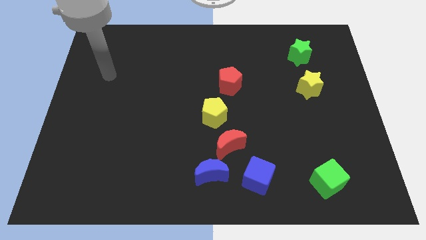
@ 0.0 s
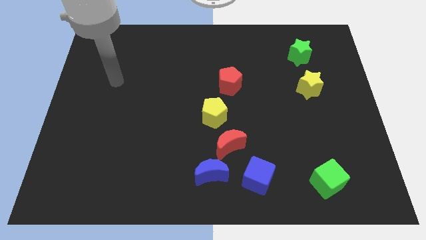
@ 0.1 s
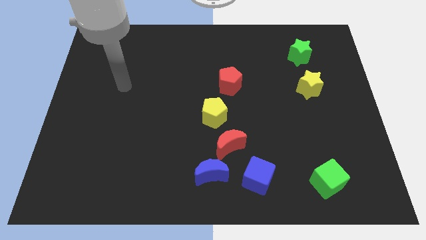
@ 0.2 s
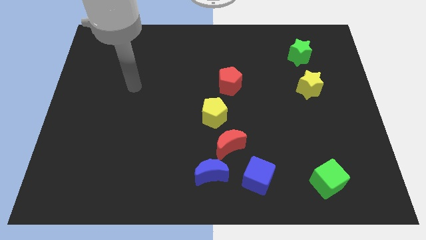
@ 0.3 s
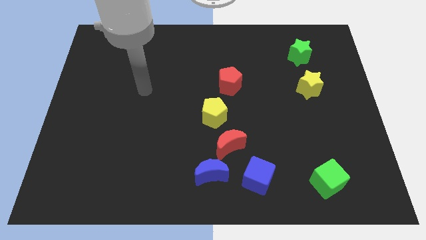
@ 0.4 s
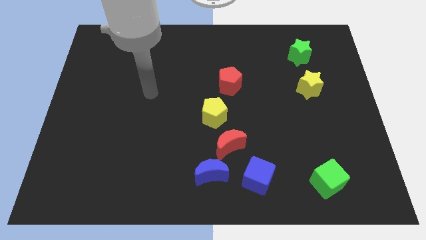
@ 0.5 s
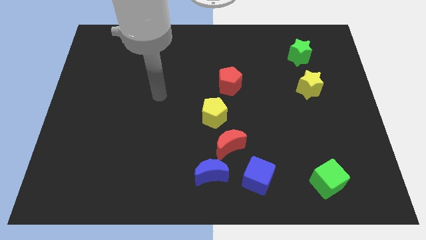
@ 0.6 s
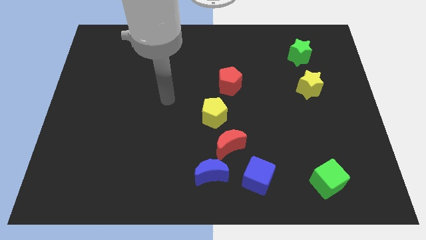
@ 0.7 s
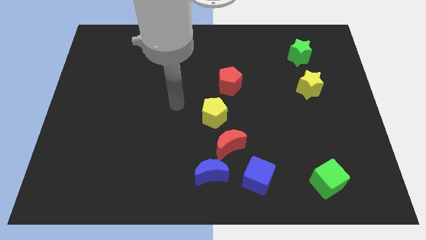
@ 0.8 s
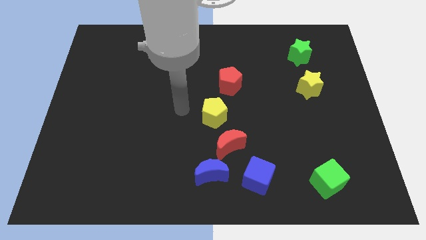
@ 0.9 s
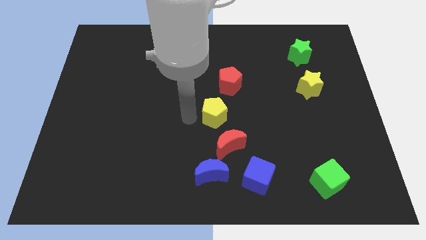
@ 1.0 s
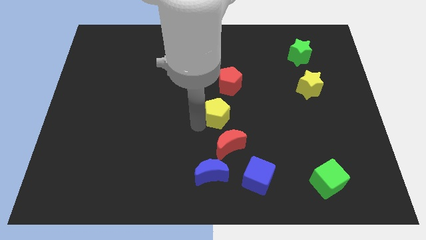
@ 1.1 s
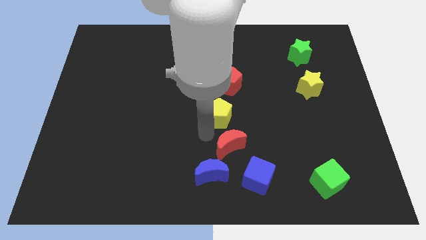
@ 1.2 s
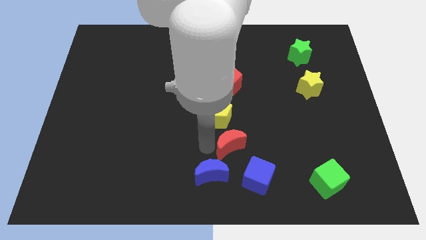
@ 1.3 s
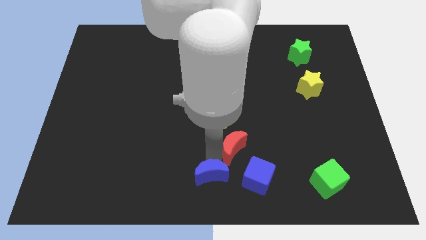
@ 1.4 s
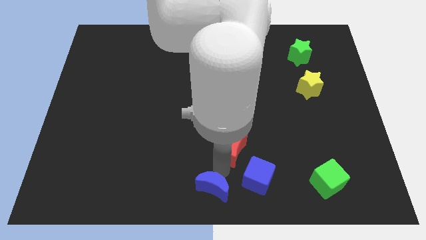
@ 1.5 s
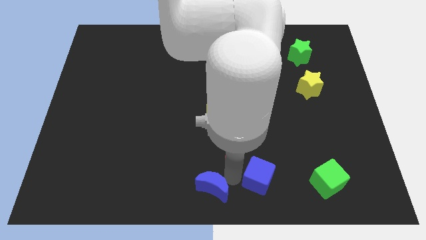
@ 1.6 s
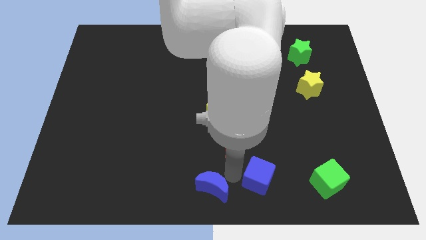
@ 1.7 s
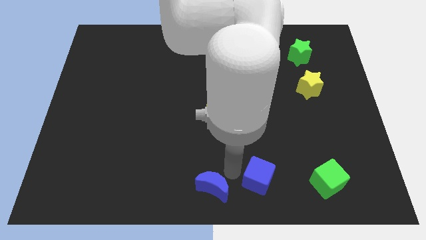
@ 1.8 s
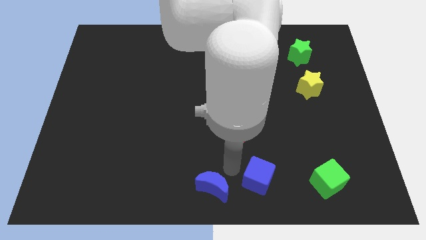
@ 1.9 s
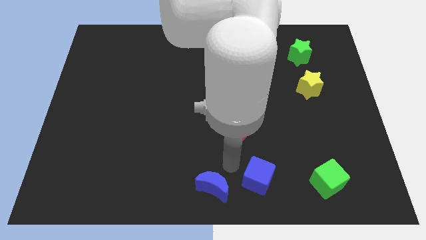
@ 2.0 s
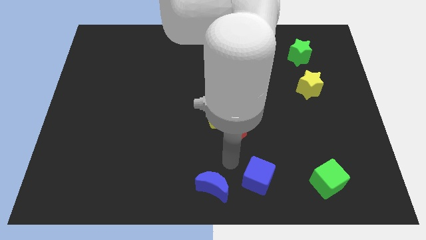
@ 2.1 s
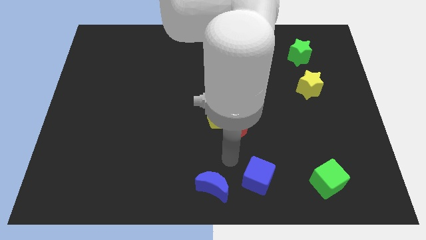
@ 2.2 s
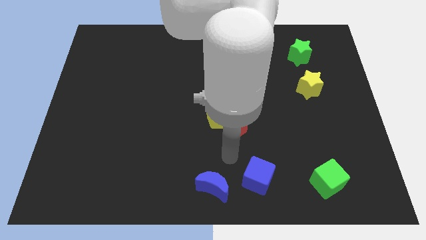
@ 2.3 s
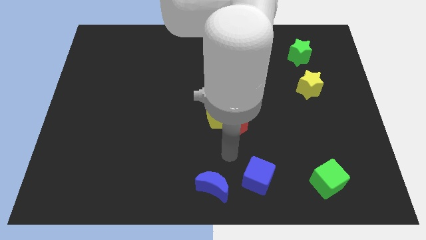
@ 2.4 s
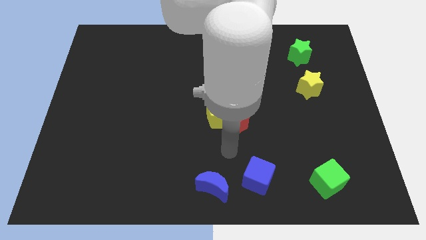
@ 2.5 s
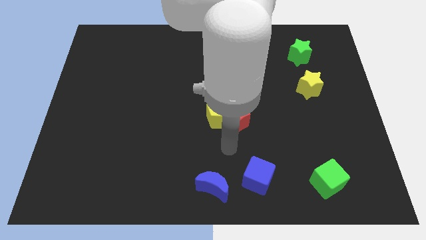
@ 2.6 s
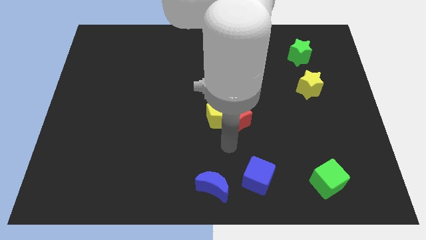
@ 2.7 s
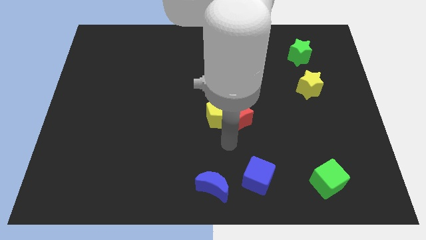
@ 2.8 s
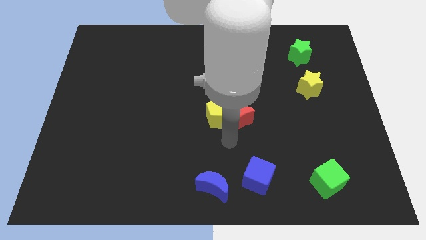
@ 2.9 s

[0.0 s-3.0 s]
pull the red moon apart from the blue moon, yellow pentagon, and blue cube

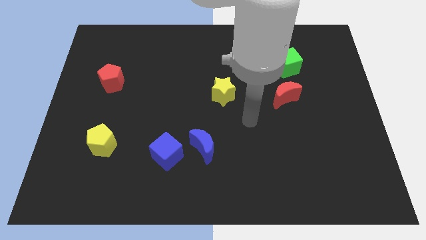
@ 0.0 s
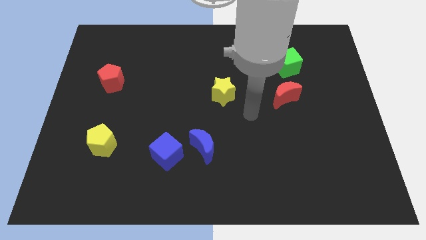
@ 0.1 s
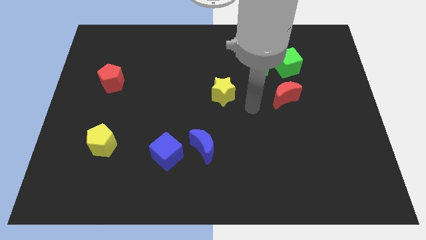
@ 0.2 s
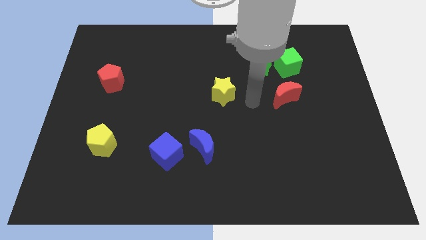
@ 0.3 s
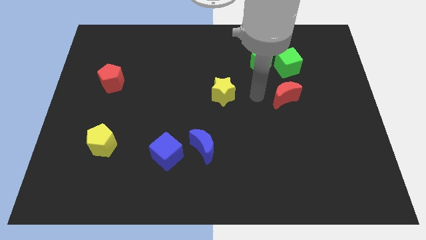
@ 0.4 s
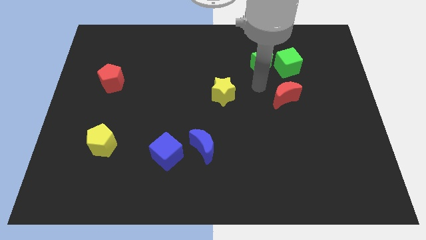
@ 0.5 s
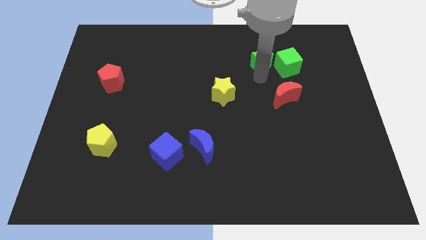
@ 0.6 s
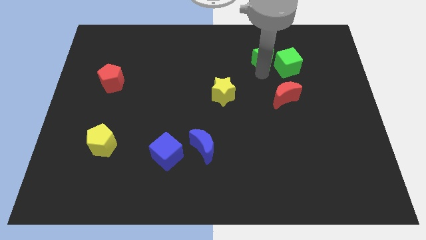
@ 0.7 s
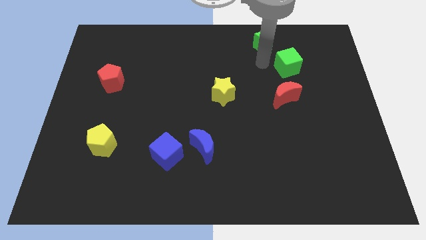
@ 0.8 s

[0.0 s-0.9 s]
separate the green cube from the green star

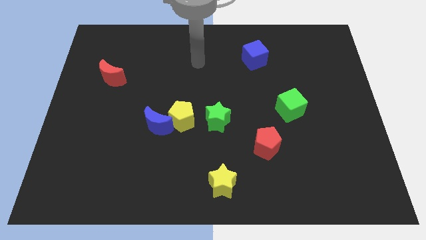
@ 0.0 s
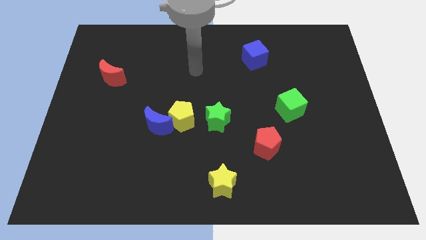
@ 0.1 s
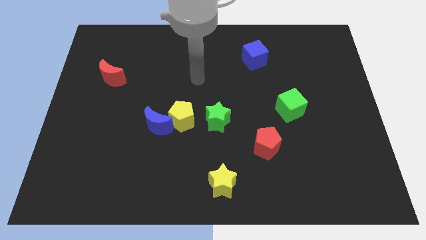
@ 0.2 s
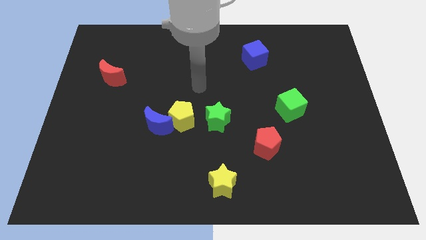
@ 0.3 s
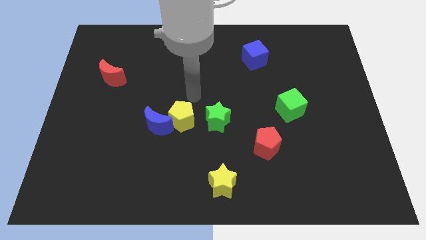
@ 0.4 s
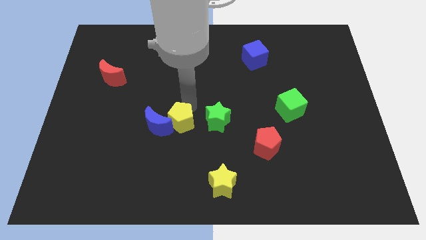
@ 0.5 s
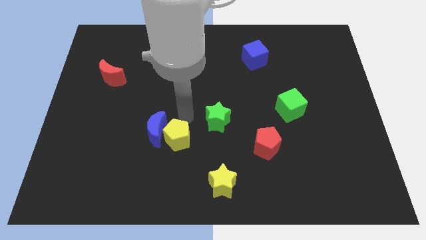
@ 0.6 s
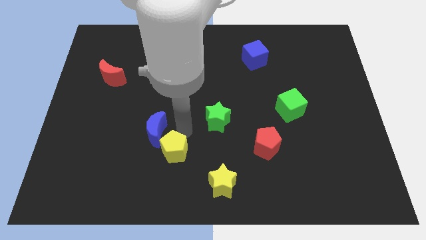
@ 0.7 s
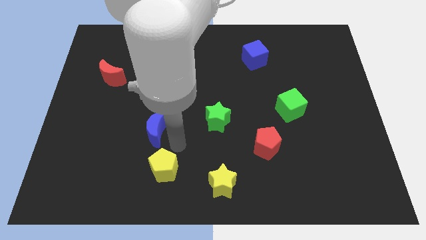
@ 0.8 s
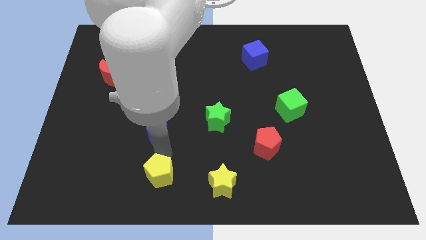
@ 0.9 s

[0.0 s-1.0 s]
separate the blue moon from the yellow pentagon

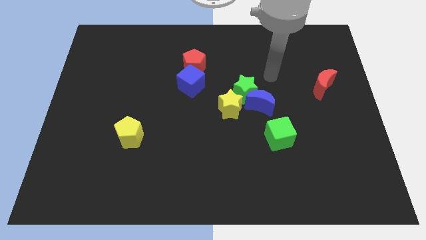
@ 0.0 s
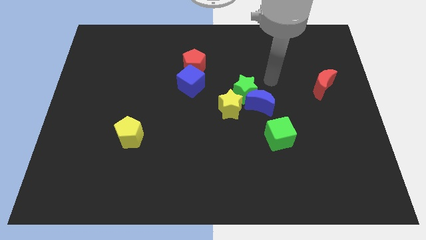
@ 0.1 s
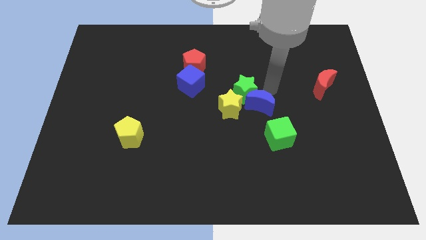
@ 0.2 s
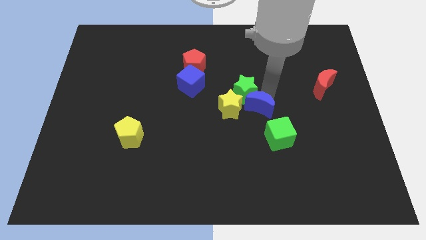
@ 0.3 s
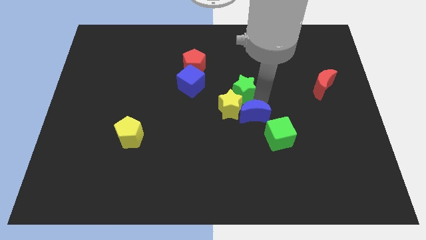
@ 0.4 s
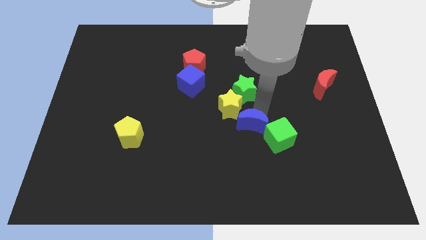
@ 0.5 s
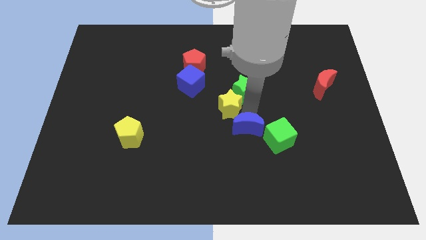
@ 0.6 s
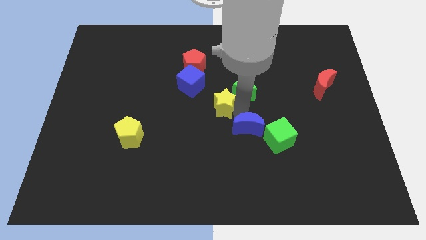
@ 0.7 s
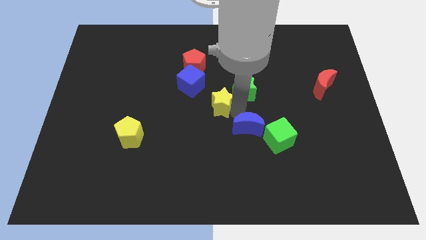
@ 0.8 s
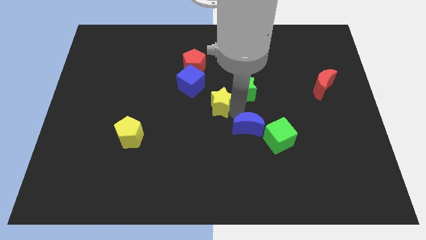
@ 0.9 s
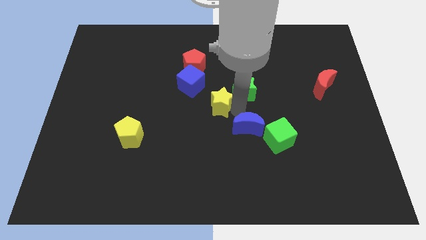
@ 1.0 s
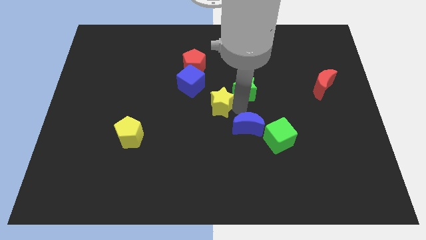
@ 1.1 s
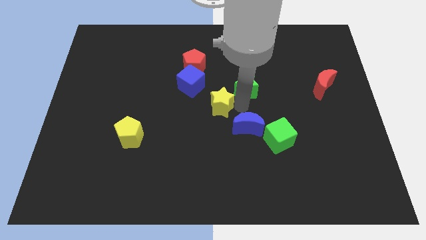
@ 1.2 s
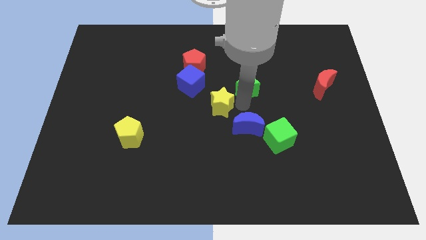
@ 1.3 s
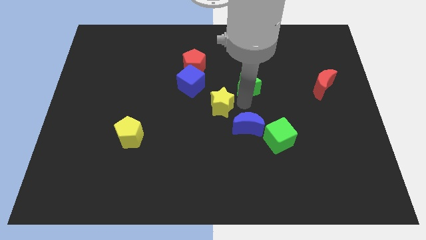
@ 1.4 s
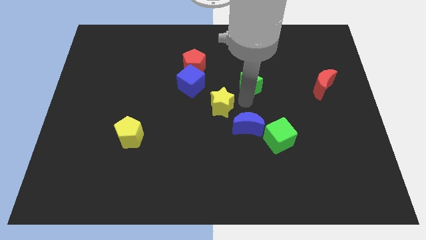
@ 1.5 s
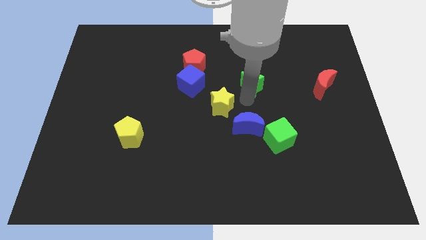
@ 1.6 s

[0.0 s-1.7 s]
separate the green star from the blue moon and yellow star

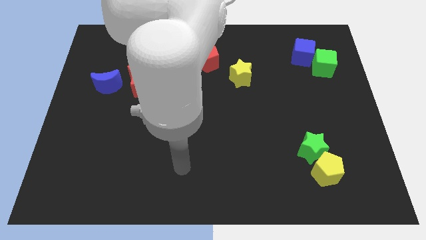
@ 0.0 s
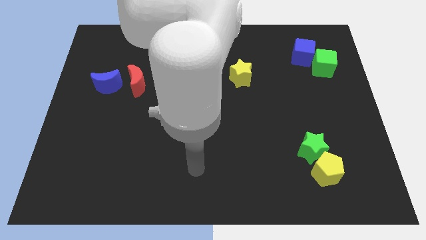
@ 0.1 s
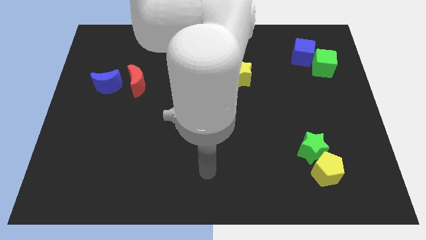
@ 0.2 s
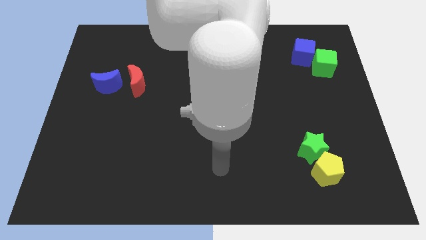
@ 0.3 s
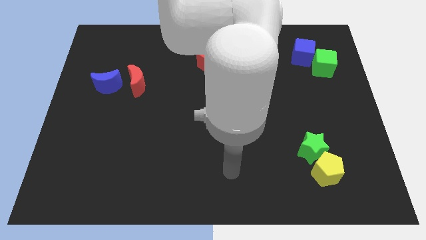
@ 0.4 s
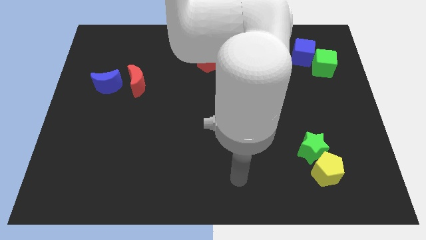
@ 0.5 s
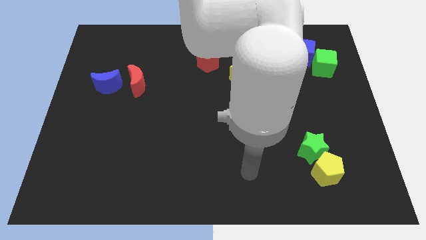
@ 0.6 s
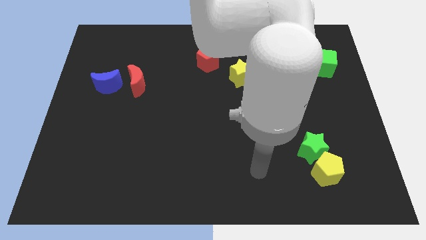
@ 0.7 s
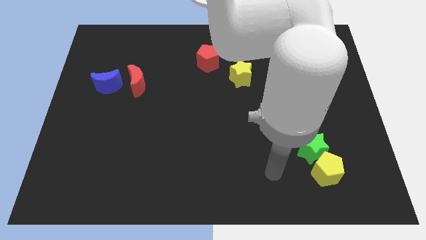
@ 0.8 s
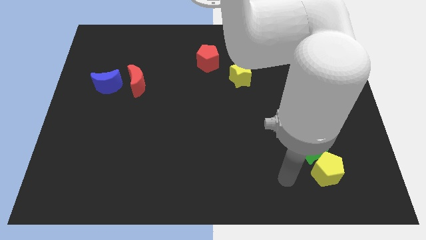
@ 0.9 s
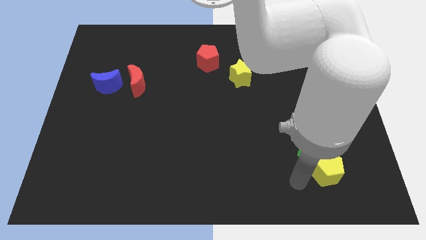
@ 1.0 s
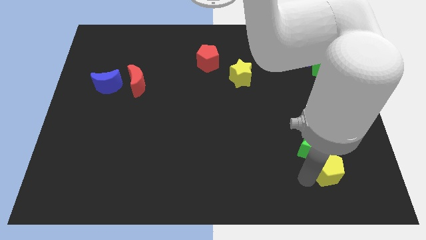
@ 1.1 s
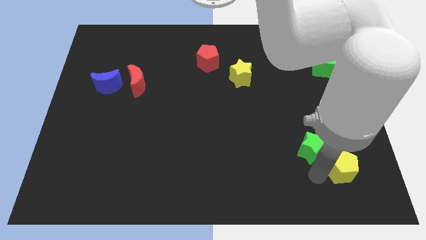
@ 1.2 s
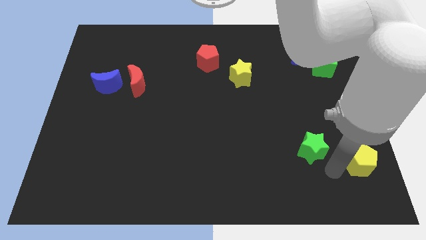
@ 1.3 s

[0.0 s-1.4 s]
separate the green star from the yellow pentagon

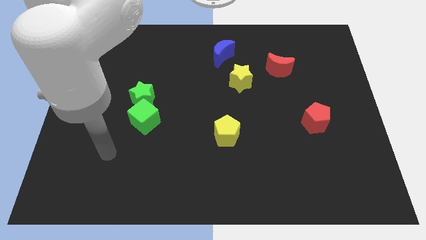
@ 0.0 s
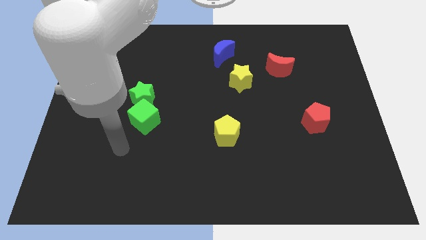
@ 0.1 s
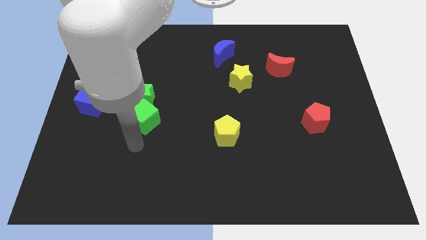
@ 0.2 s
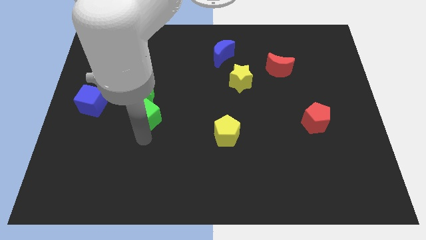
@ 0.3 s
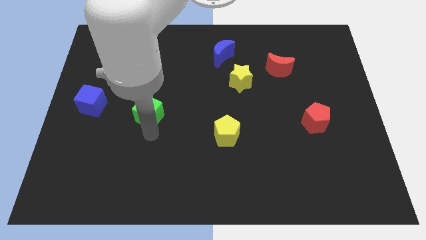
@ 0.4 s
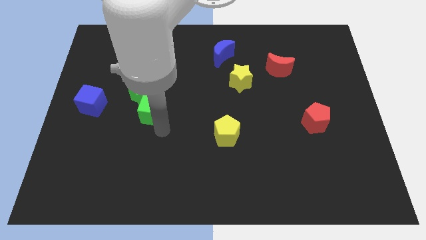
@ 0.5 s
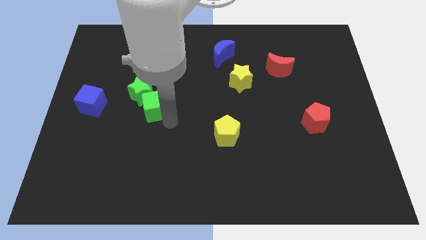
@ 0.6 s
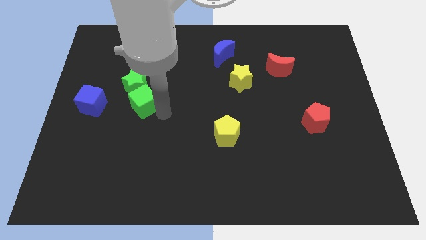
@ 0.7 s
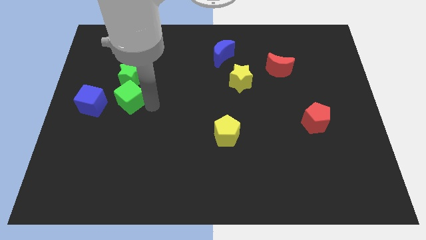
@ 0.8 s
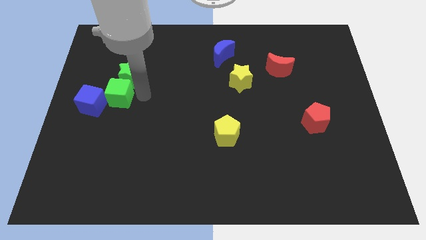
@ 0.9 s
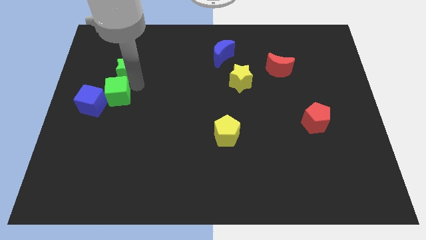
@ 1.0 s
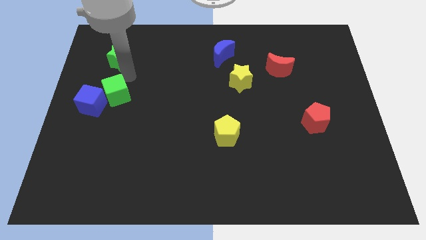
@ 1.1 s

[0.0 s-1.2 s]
move the green cube away from the green star
